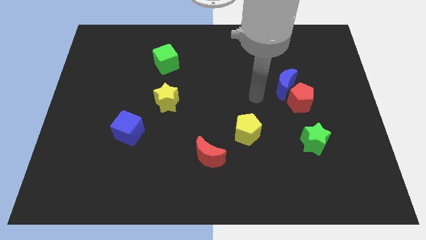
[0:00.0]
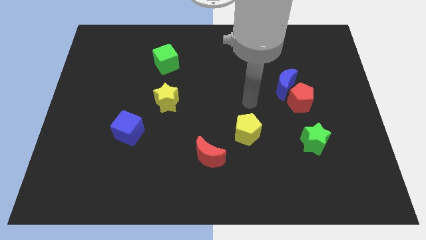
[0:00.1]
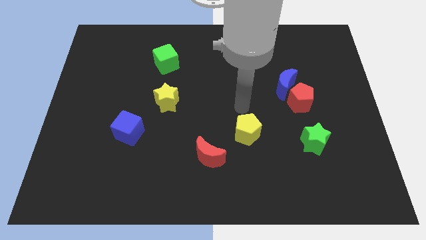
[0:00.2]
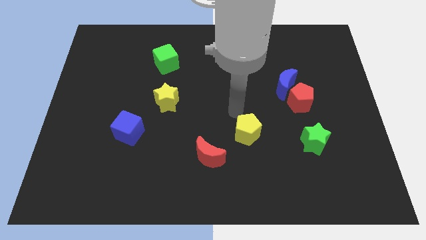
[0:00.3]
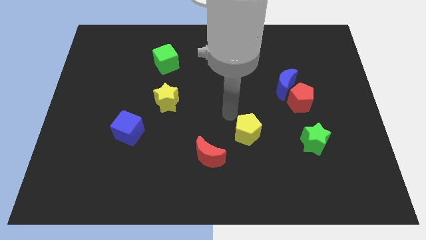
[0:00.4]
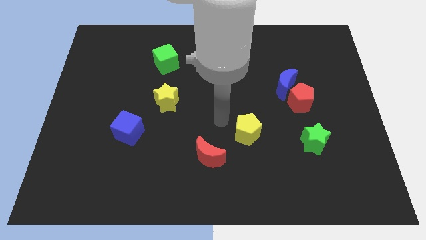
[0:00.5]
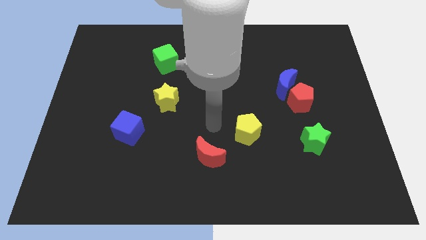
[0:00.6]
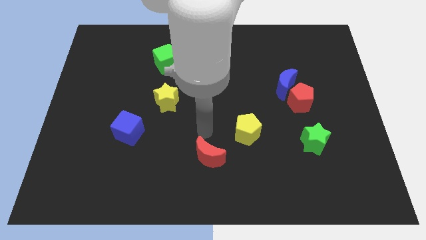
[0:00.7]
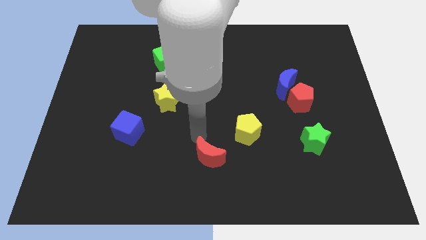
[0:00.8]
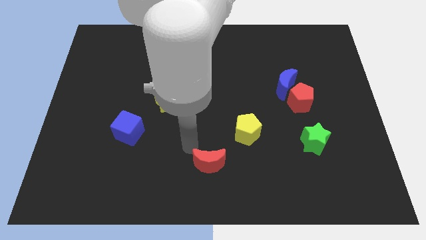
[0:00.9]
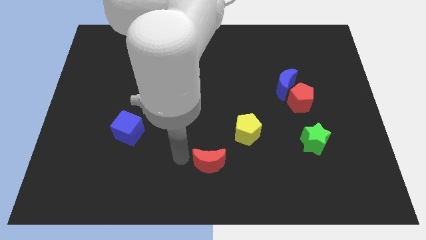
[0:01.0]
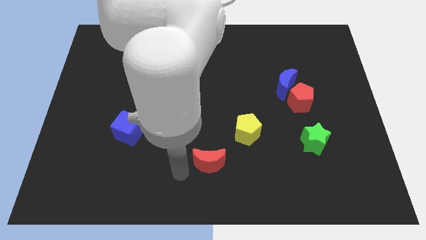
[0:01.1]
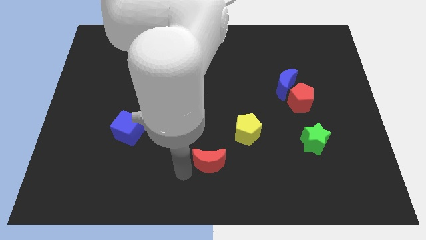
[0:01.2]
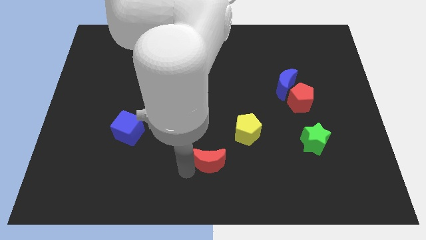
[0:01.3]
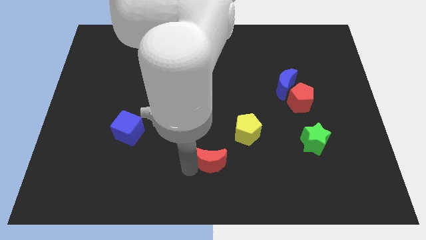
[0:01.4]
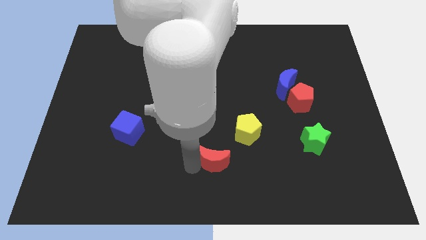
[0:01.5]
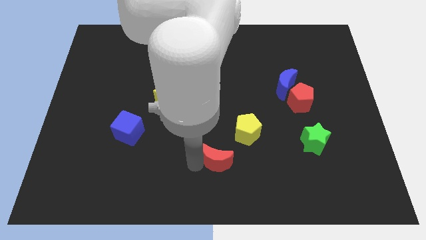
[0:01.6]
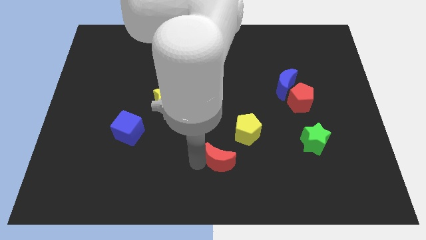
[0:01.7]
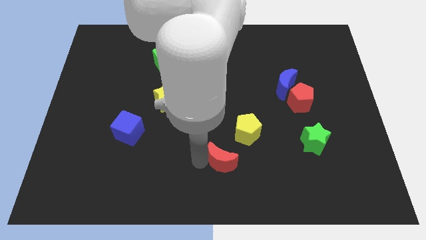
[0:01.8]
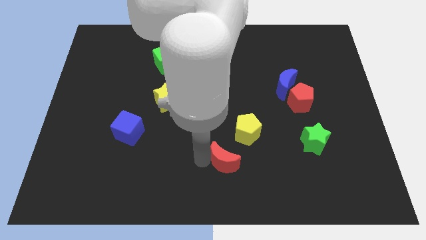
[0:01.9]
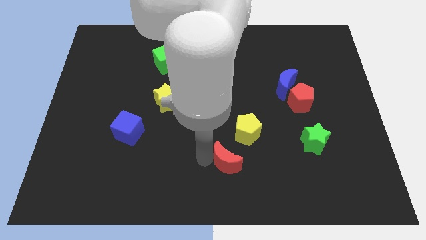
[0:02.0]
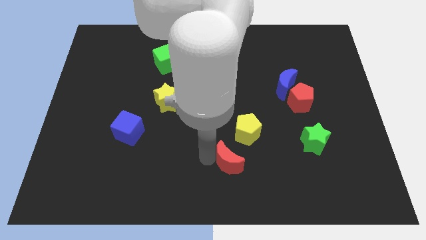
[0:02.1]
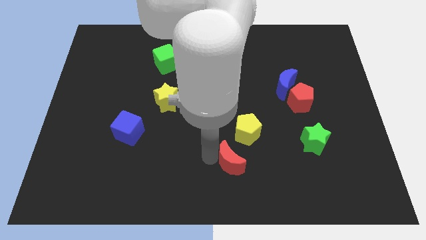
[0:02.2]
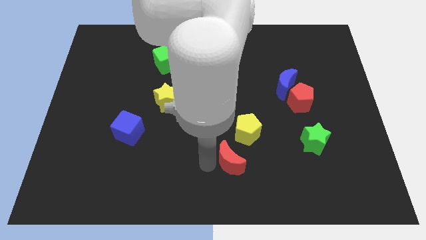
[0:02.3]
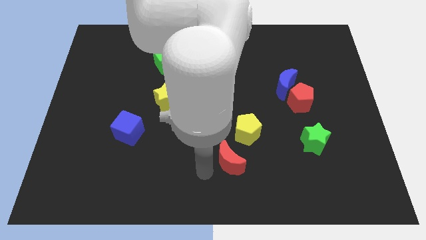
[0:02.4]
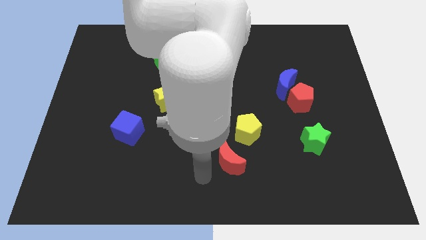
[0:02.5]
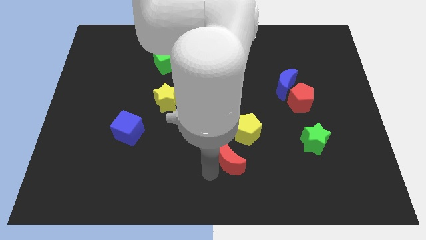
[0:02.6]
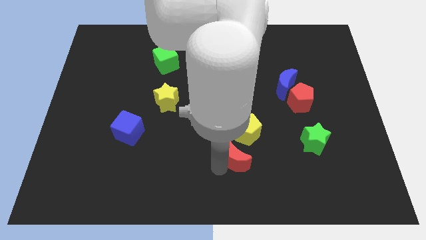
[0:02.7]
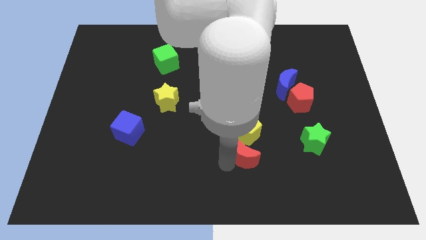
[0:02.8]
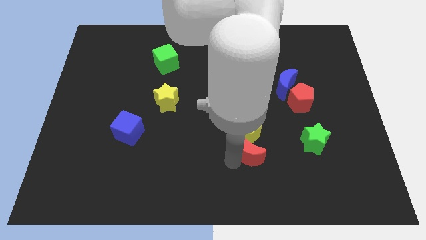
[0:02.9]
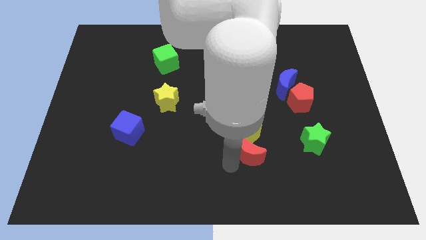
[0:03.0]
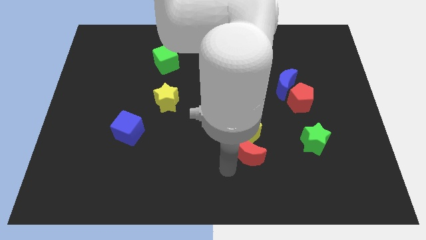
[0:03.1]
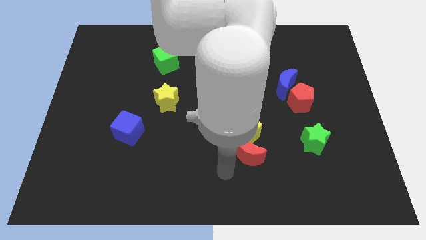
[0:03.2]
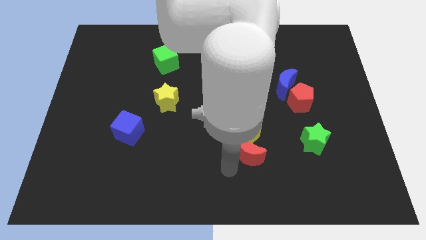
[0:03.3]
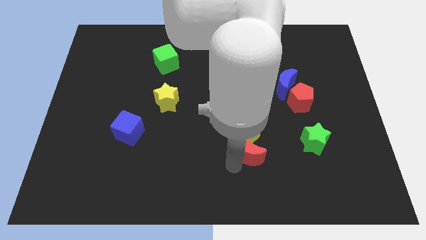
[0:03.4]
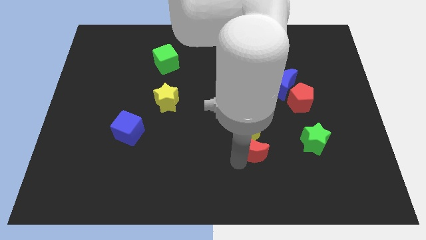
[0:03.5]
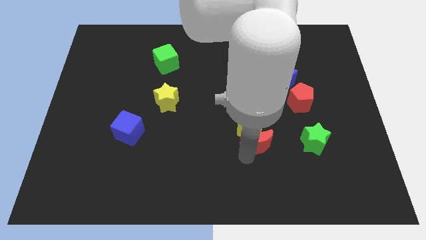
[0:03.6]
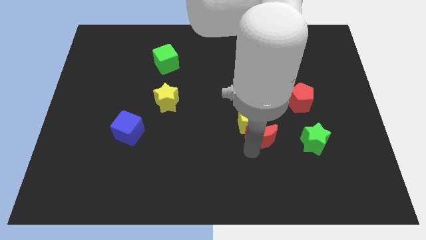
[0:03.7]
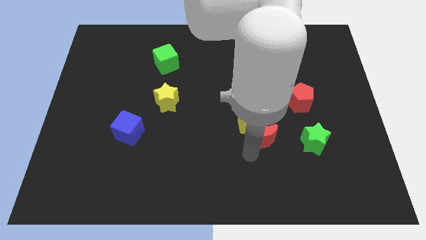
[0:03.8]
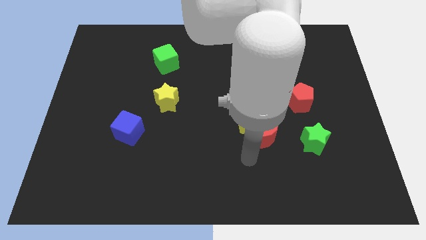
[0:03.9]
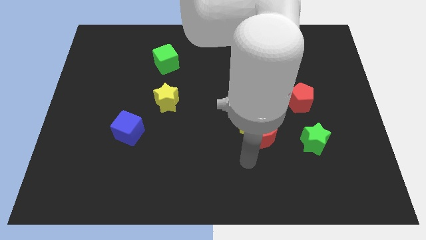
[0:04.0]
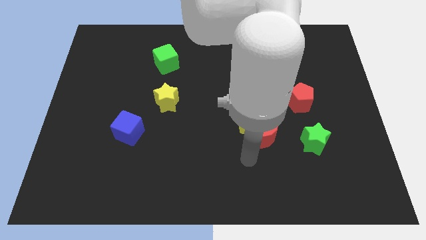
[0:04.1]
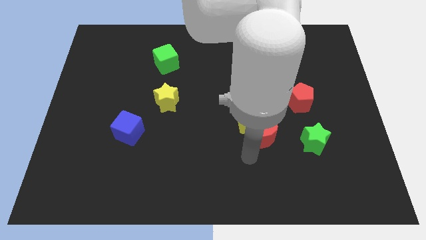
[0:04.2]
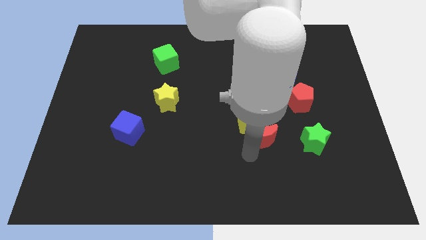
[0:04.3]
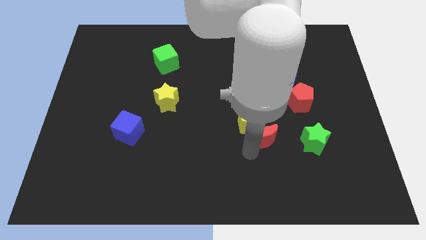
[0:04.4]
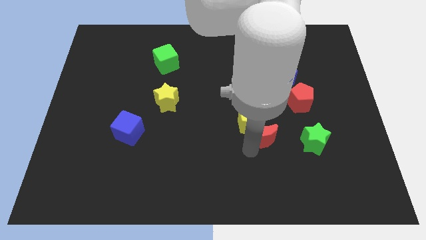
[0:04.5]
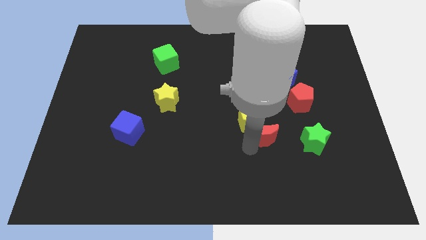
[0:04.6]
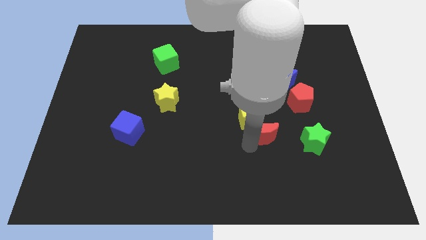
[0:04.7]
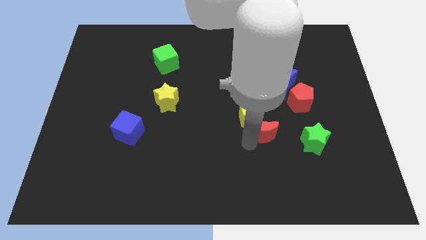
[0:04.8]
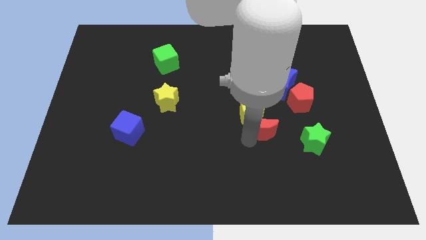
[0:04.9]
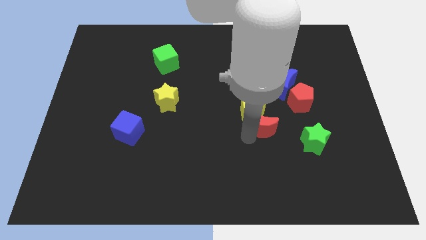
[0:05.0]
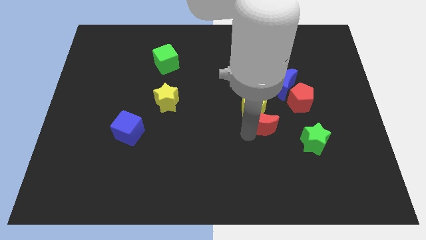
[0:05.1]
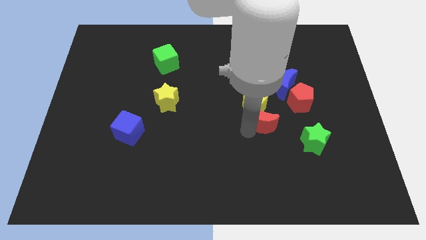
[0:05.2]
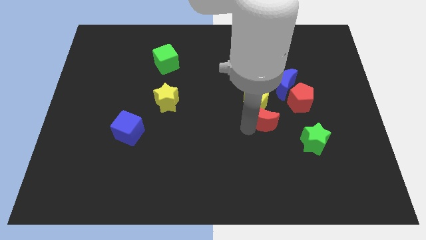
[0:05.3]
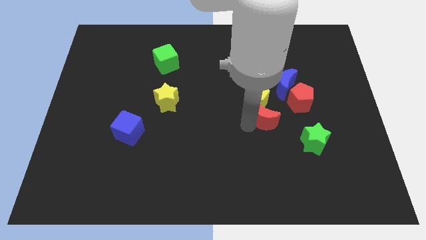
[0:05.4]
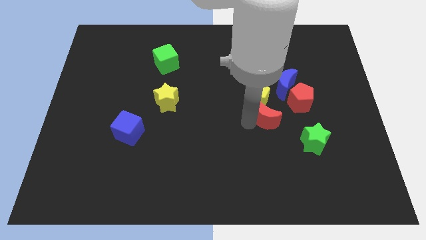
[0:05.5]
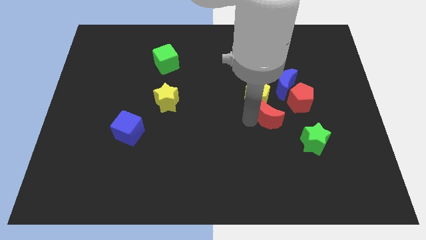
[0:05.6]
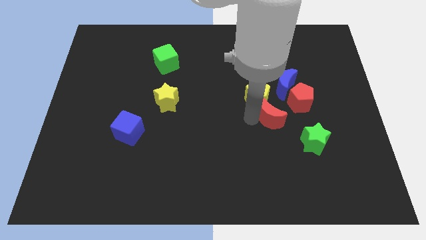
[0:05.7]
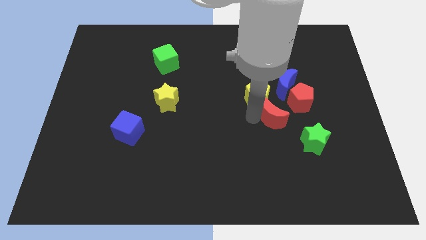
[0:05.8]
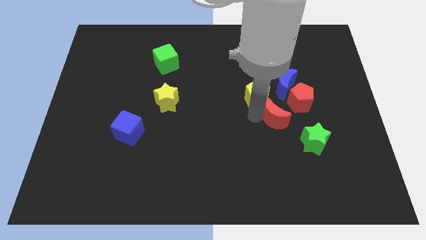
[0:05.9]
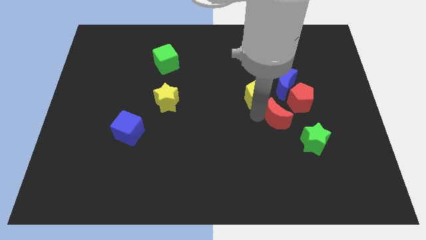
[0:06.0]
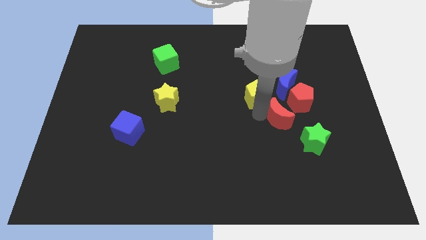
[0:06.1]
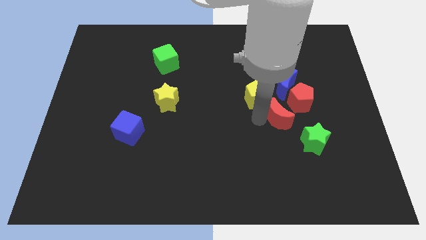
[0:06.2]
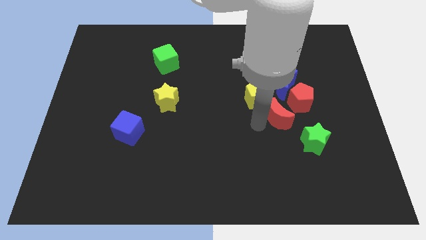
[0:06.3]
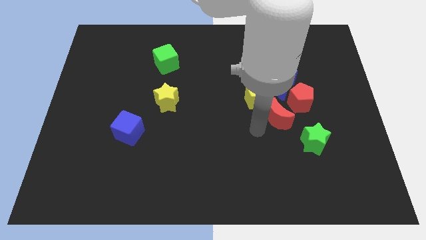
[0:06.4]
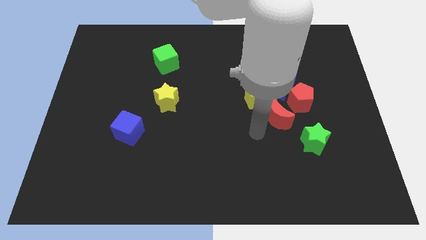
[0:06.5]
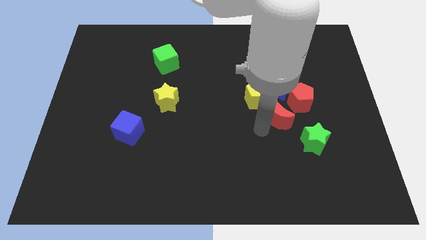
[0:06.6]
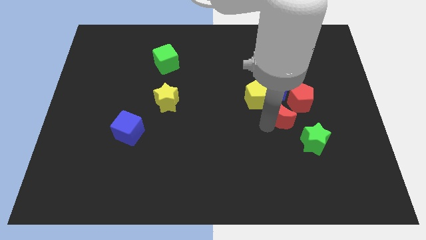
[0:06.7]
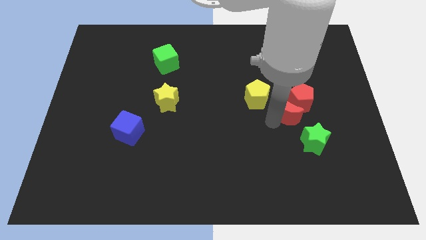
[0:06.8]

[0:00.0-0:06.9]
move the red moon towards the red pentagon

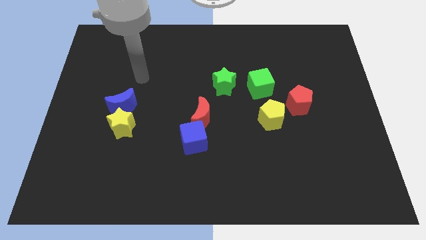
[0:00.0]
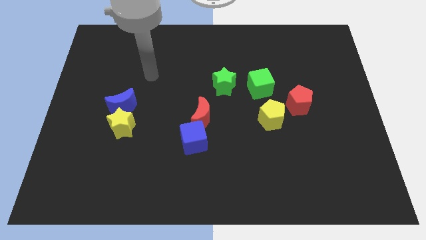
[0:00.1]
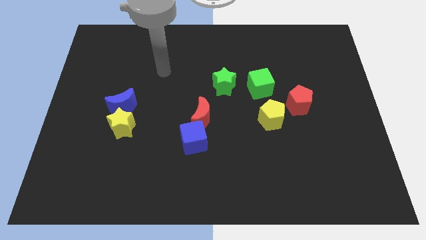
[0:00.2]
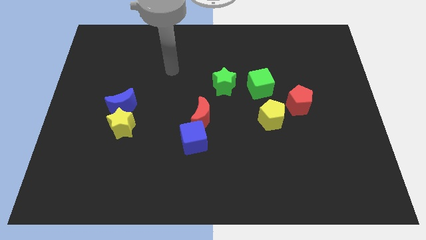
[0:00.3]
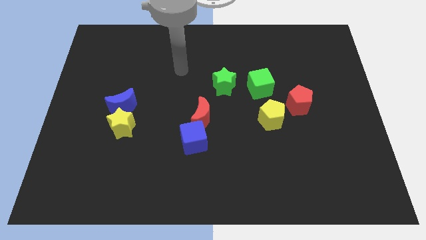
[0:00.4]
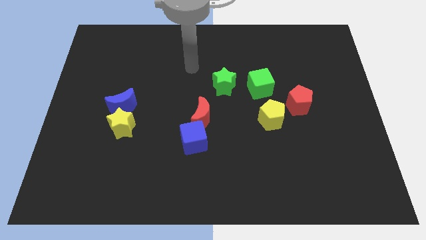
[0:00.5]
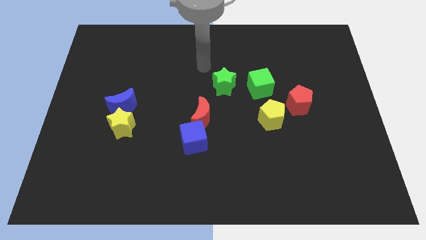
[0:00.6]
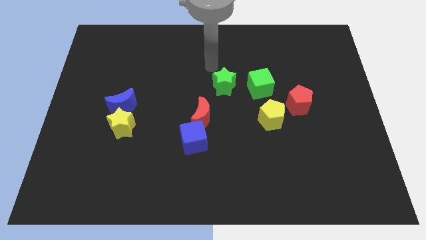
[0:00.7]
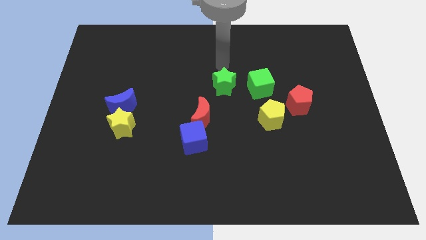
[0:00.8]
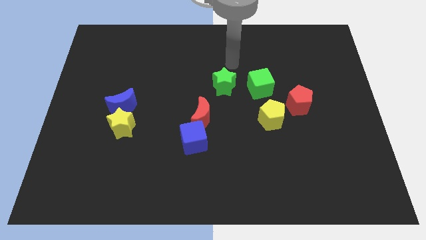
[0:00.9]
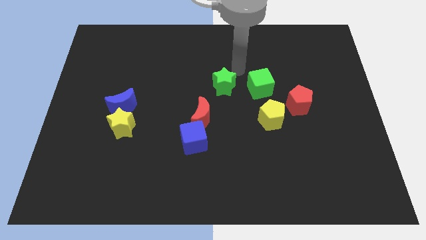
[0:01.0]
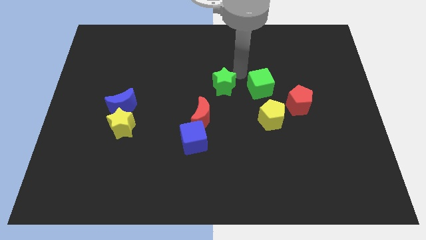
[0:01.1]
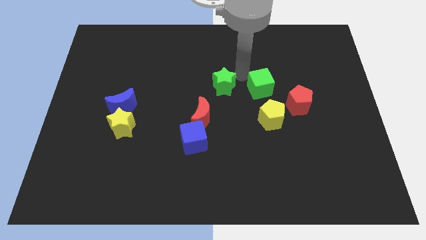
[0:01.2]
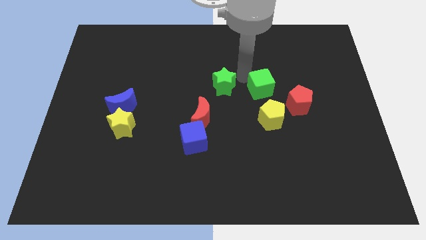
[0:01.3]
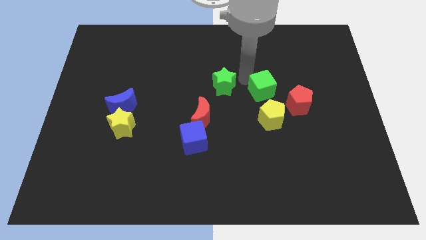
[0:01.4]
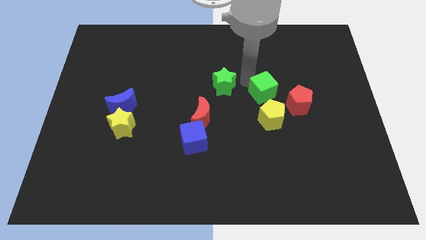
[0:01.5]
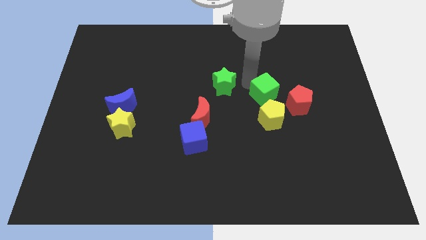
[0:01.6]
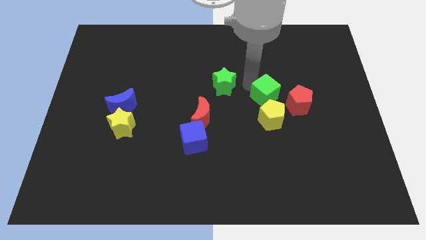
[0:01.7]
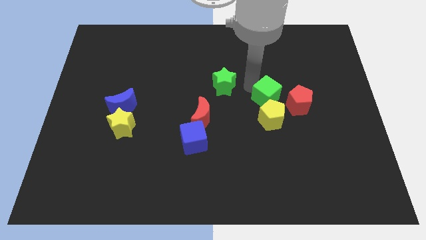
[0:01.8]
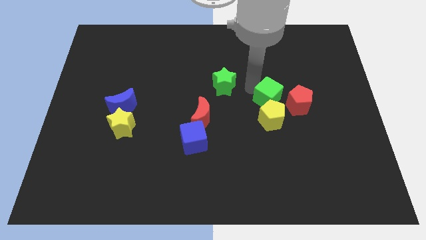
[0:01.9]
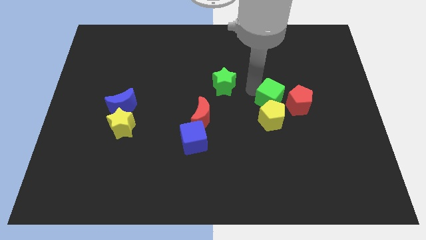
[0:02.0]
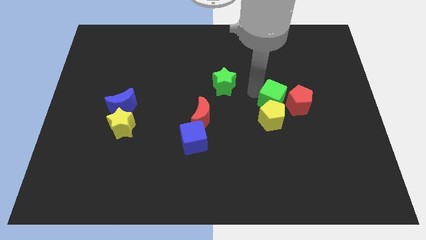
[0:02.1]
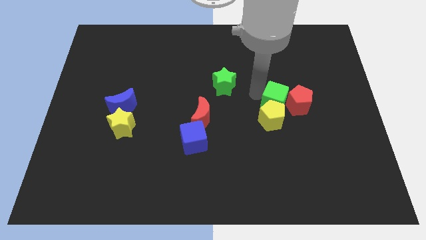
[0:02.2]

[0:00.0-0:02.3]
slide the green cube close to the red pentagon
